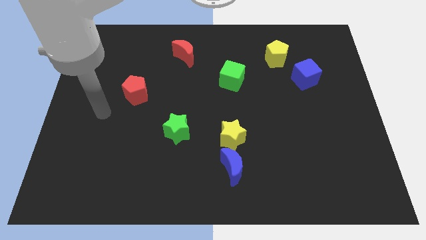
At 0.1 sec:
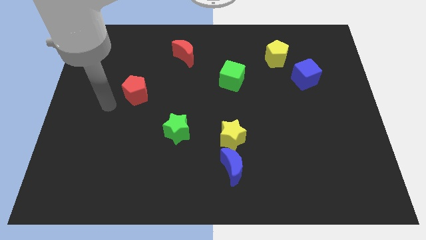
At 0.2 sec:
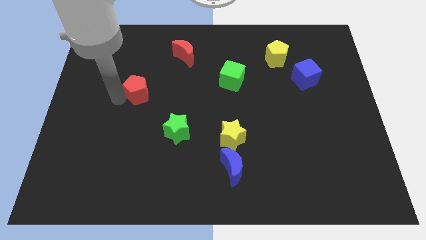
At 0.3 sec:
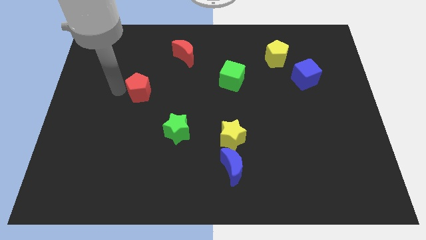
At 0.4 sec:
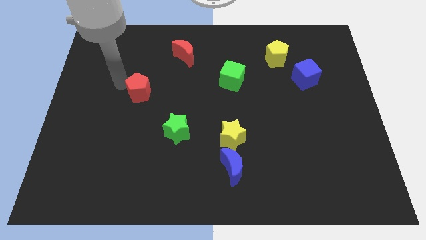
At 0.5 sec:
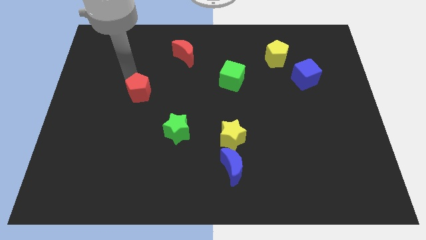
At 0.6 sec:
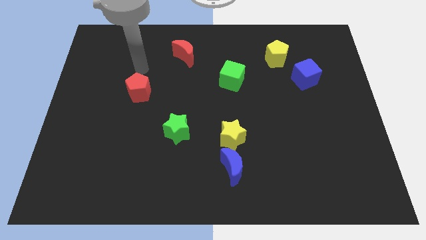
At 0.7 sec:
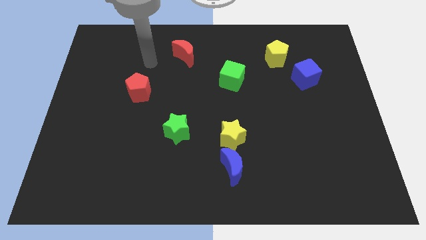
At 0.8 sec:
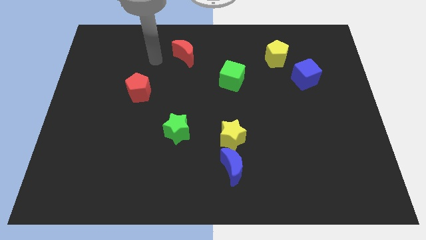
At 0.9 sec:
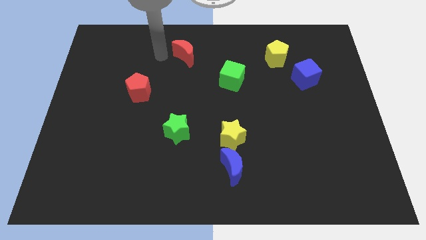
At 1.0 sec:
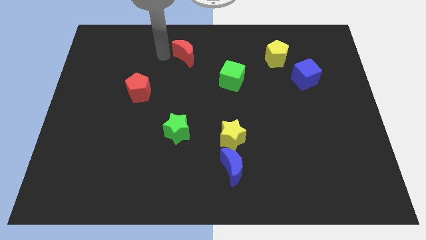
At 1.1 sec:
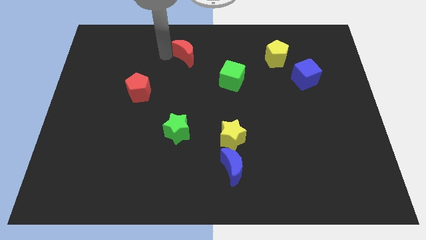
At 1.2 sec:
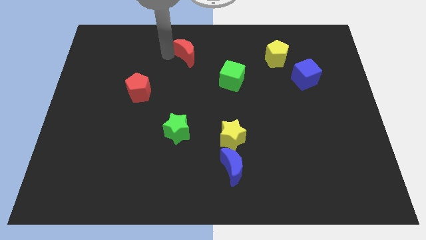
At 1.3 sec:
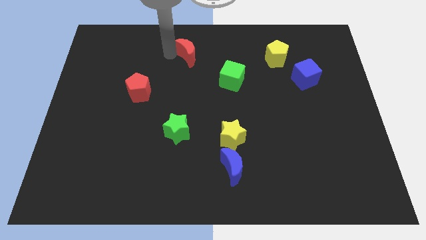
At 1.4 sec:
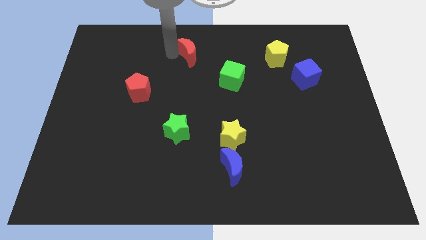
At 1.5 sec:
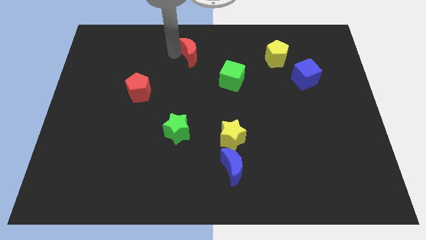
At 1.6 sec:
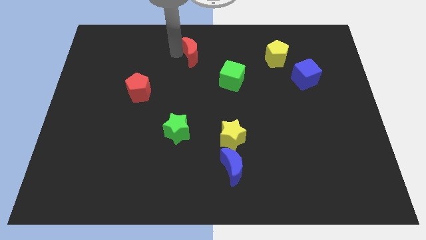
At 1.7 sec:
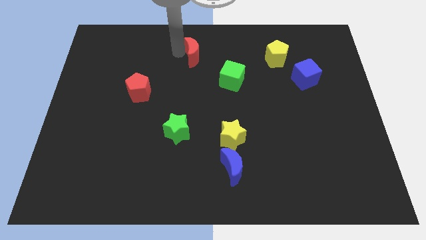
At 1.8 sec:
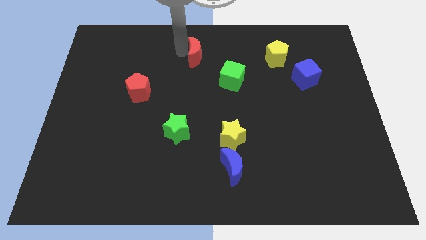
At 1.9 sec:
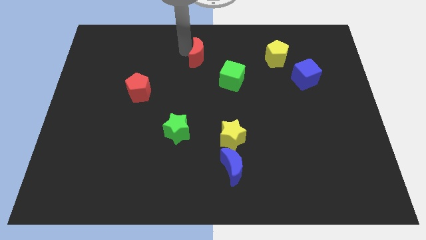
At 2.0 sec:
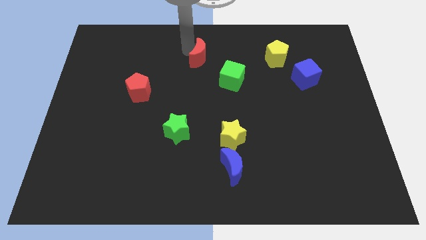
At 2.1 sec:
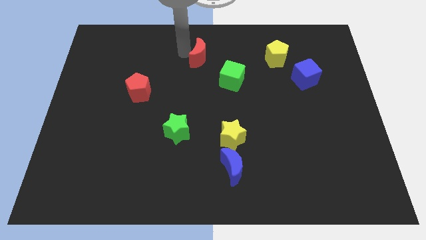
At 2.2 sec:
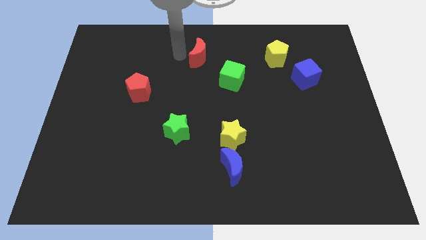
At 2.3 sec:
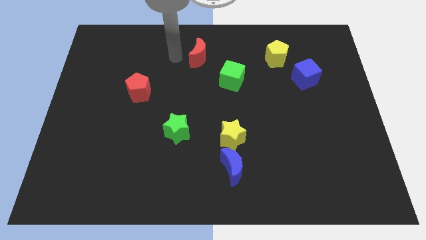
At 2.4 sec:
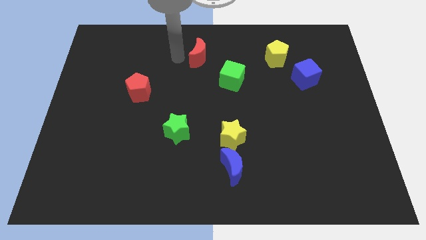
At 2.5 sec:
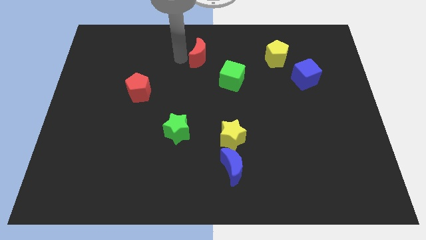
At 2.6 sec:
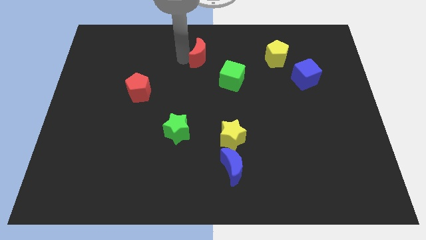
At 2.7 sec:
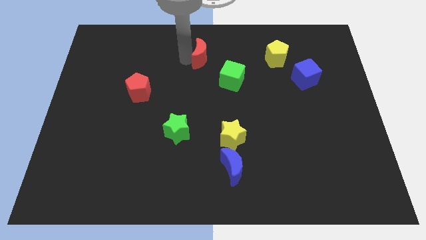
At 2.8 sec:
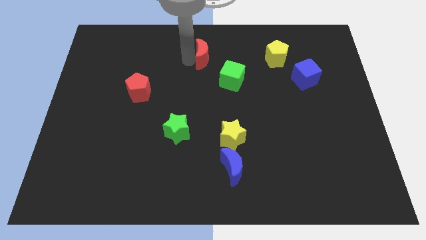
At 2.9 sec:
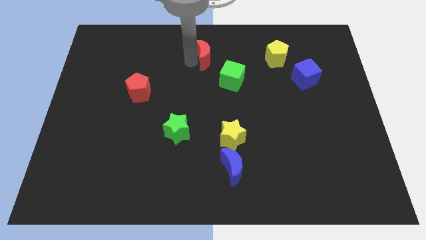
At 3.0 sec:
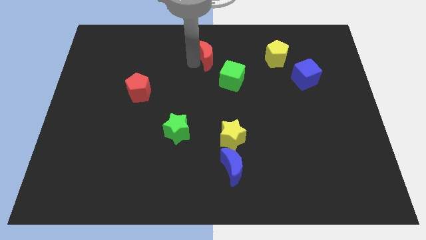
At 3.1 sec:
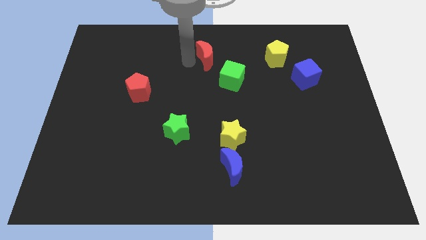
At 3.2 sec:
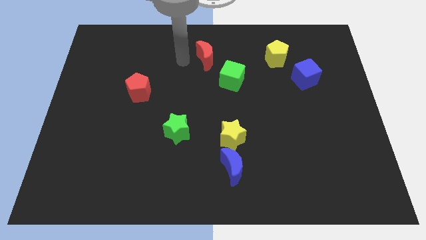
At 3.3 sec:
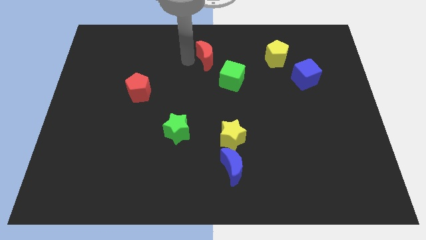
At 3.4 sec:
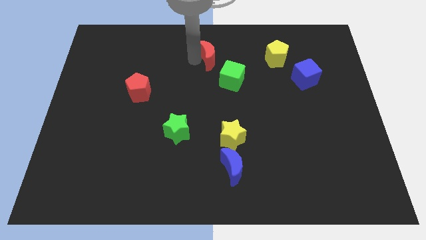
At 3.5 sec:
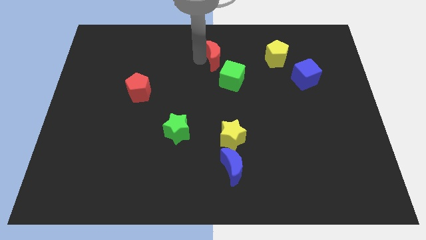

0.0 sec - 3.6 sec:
slide the red moon a little bit to the right

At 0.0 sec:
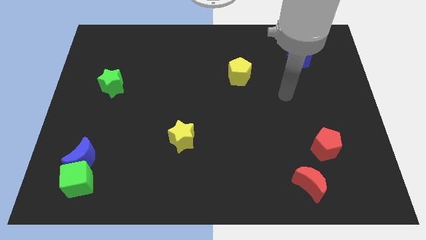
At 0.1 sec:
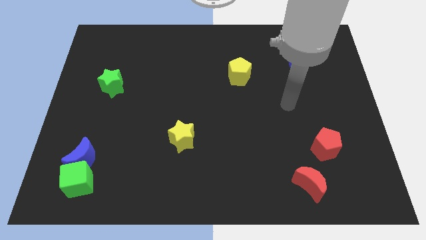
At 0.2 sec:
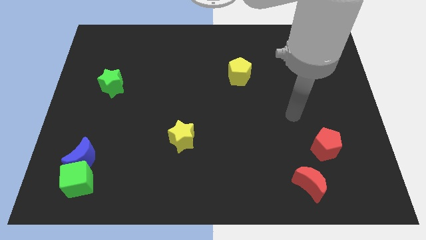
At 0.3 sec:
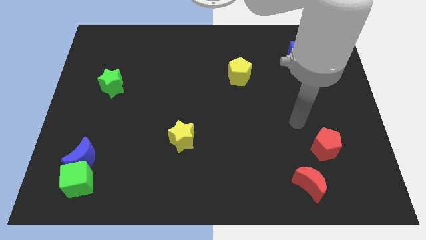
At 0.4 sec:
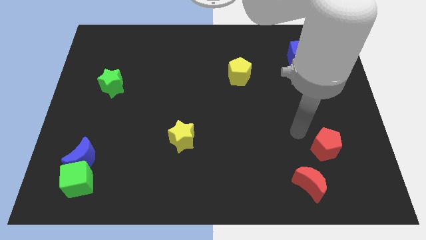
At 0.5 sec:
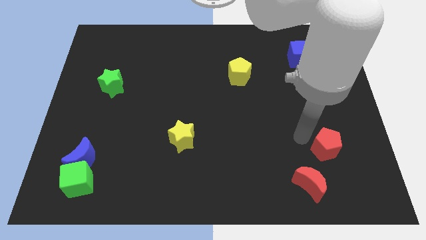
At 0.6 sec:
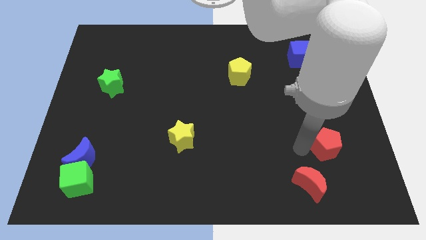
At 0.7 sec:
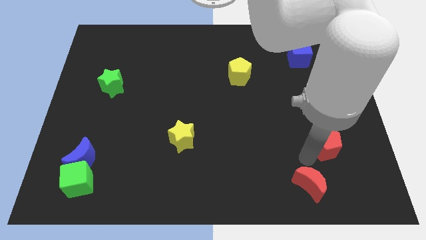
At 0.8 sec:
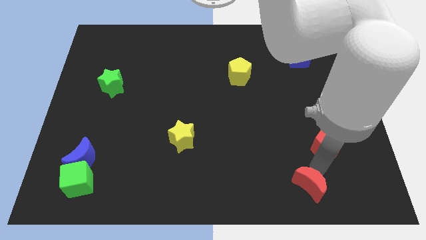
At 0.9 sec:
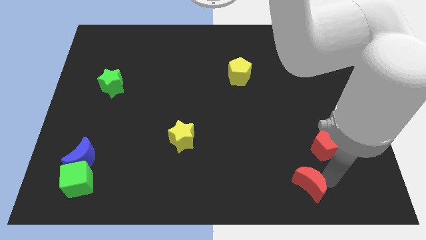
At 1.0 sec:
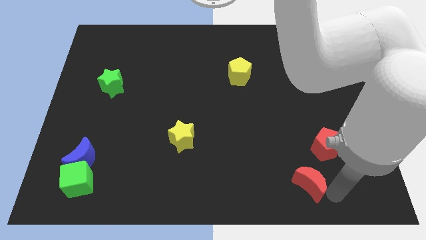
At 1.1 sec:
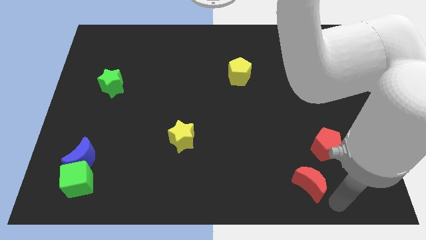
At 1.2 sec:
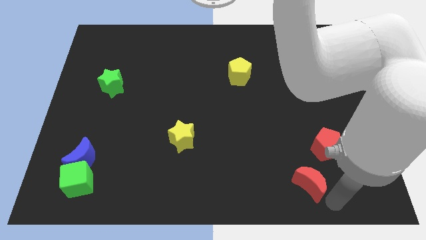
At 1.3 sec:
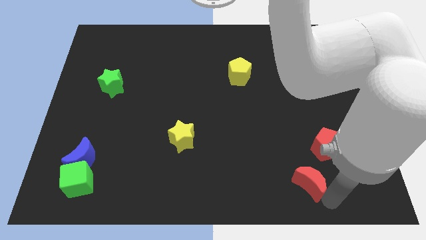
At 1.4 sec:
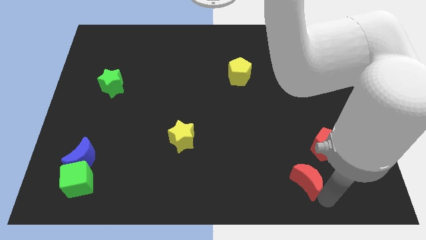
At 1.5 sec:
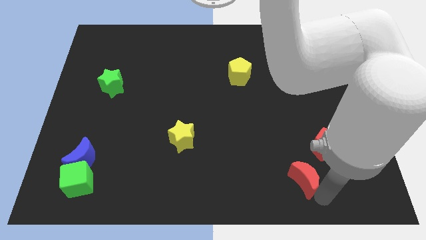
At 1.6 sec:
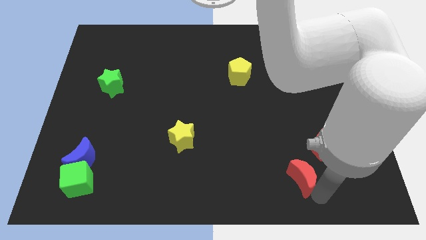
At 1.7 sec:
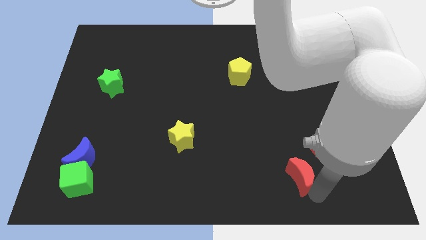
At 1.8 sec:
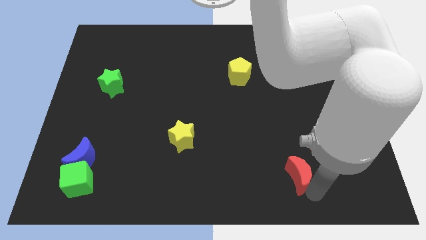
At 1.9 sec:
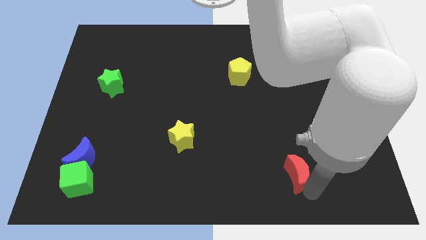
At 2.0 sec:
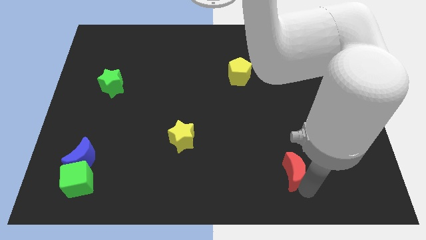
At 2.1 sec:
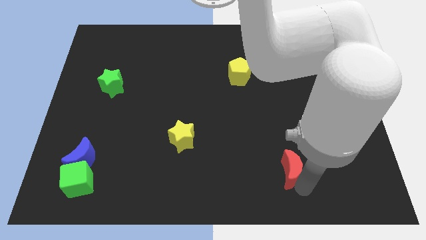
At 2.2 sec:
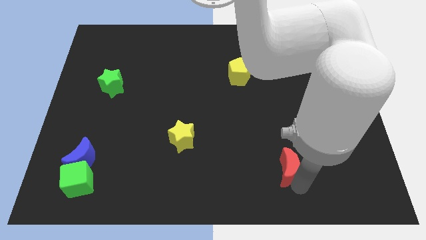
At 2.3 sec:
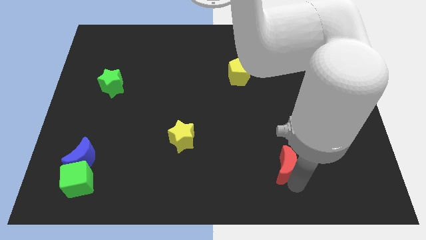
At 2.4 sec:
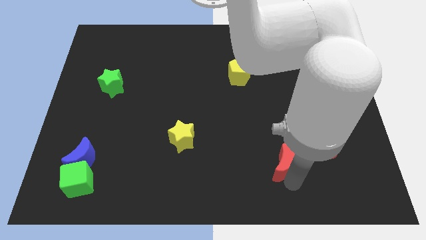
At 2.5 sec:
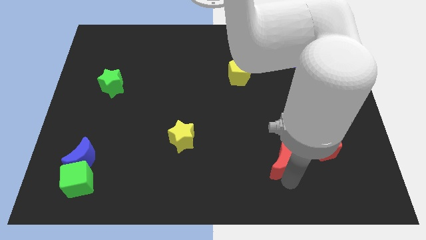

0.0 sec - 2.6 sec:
slightly push the red moon up and to the left

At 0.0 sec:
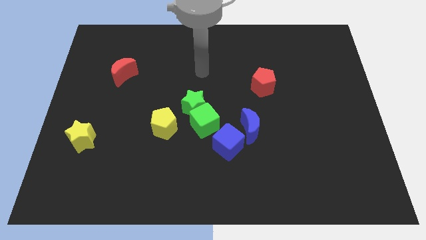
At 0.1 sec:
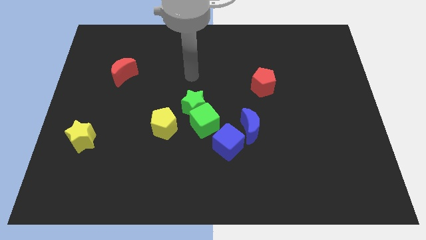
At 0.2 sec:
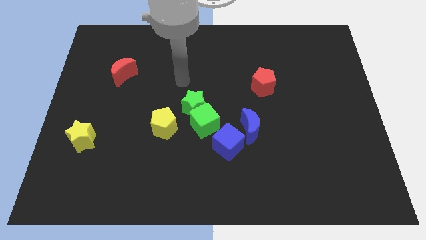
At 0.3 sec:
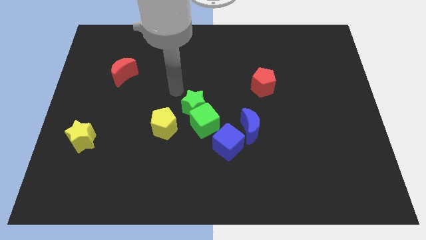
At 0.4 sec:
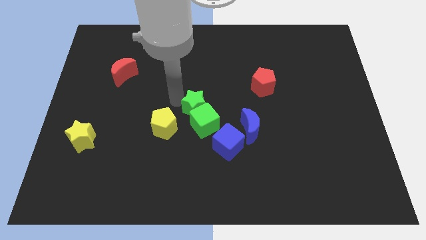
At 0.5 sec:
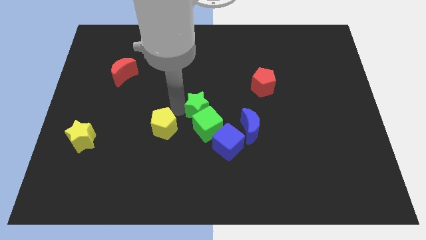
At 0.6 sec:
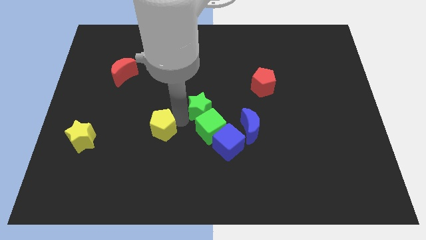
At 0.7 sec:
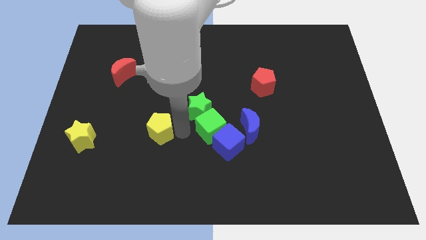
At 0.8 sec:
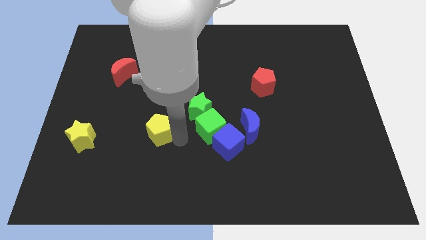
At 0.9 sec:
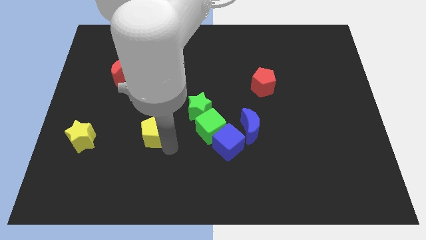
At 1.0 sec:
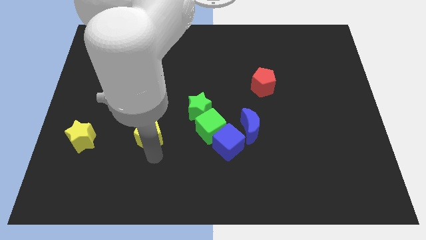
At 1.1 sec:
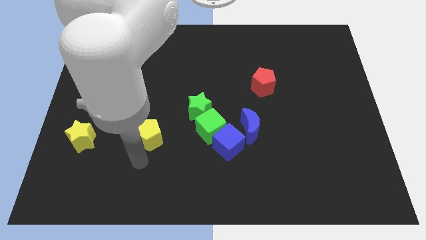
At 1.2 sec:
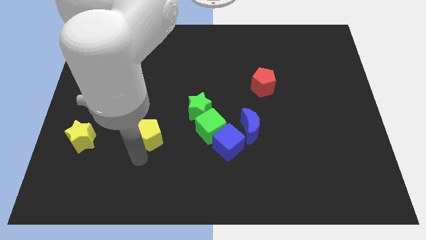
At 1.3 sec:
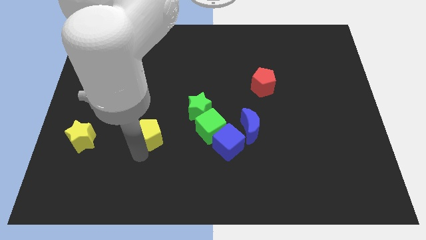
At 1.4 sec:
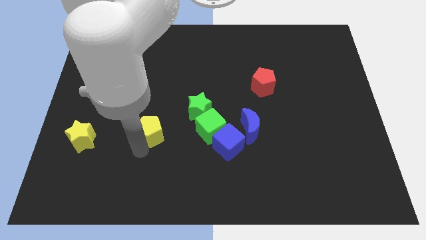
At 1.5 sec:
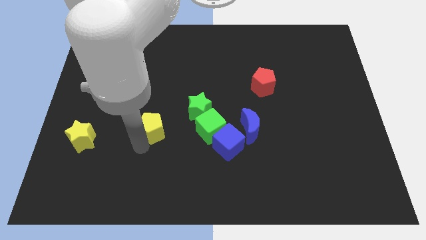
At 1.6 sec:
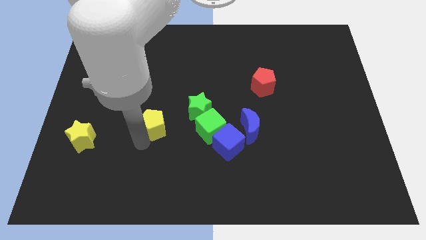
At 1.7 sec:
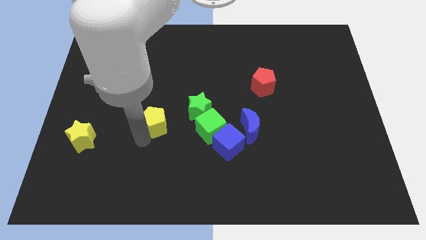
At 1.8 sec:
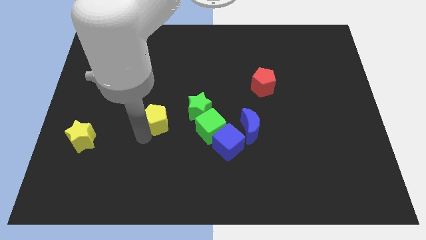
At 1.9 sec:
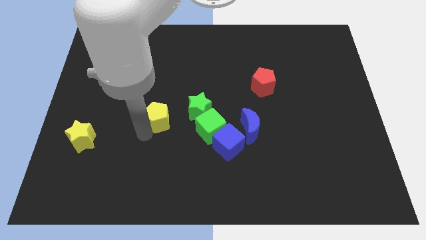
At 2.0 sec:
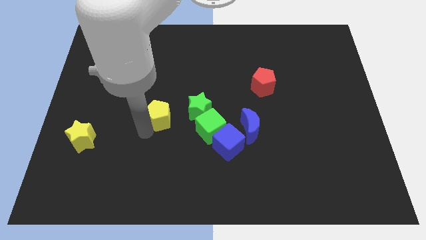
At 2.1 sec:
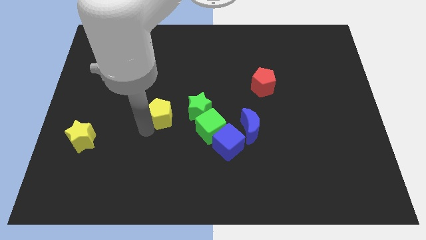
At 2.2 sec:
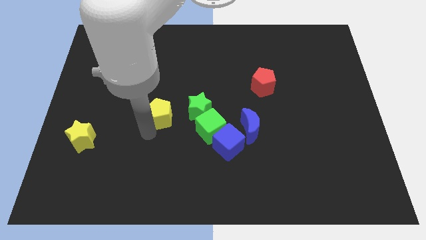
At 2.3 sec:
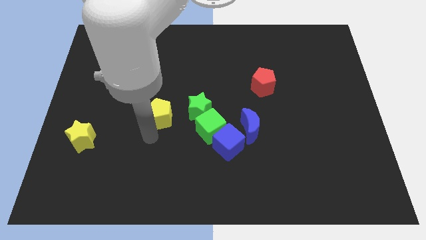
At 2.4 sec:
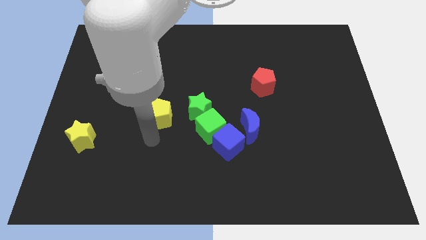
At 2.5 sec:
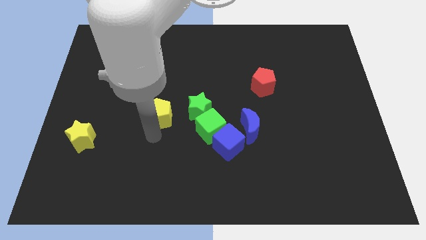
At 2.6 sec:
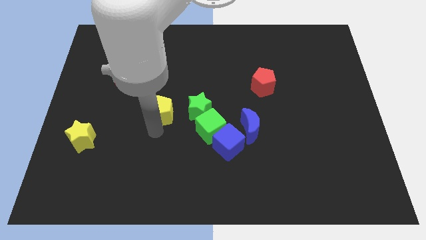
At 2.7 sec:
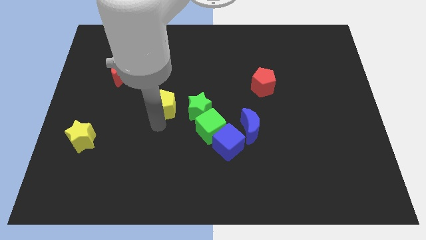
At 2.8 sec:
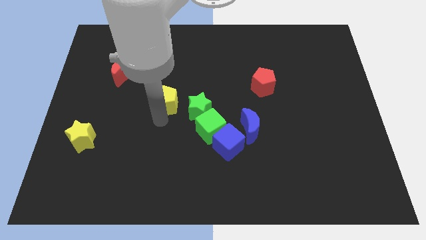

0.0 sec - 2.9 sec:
move the yellow pentagon up somewhat
